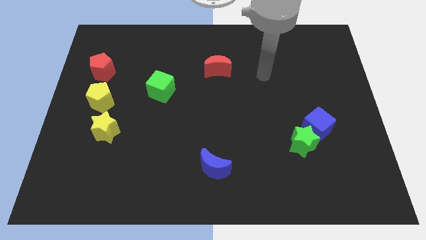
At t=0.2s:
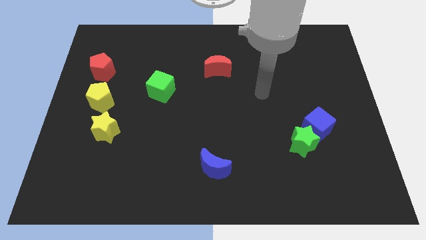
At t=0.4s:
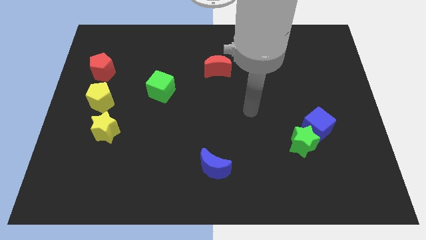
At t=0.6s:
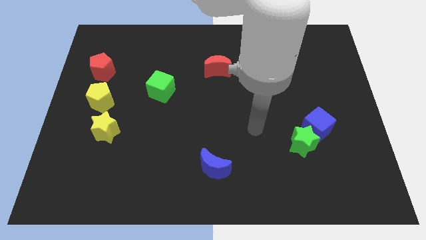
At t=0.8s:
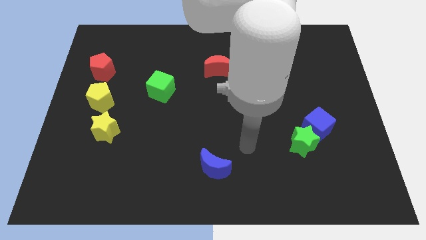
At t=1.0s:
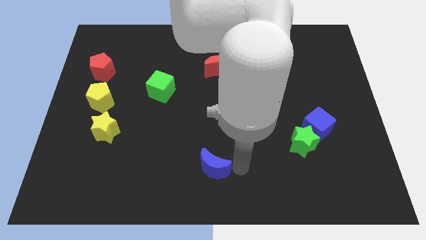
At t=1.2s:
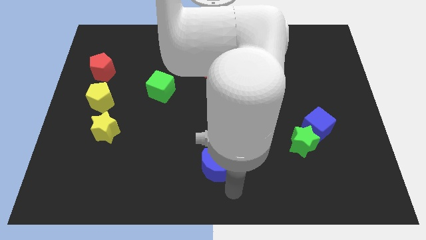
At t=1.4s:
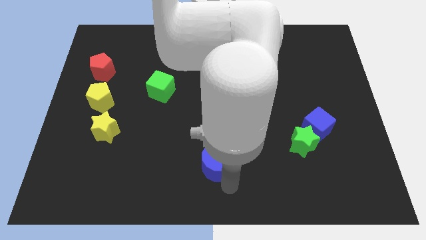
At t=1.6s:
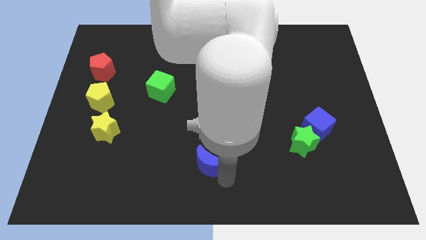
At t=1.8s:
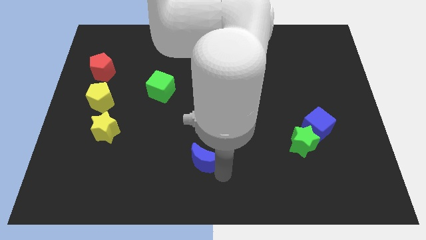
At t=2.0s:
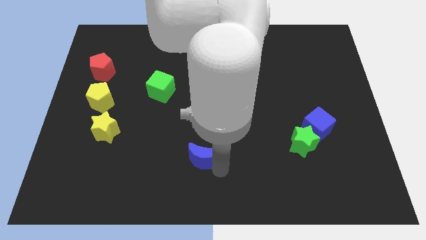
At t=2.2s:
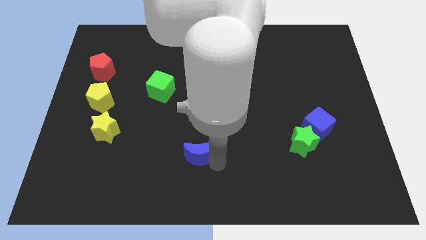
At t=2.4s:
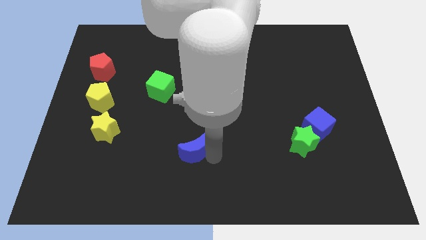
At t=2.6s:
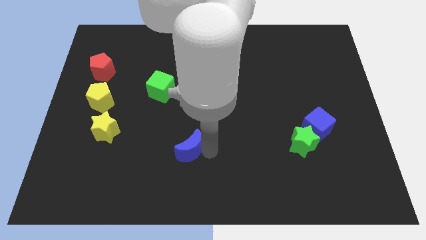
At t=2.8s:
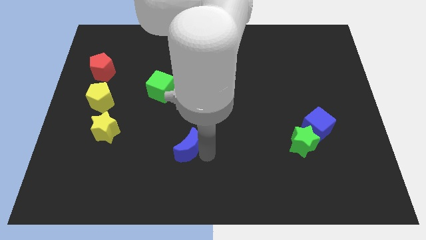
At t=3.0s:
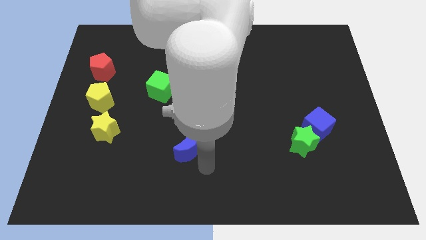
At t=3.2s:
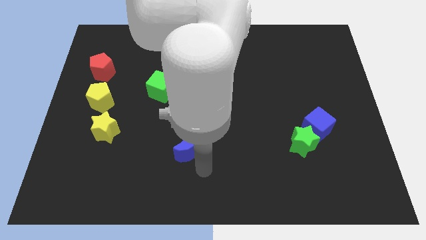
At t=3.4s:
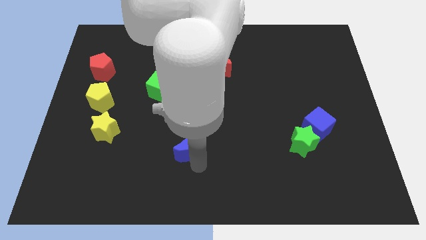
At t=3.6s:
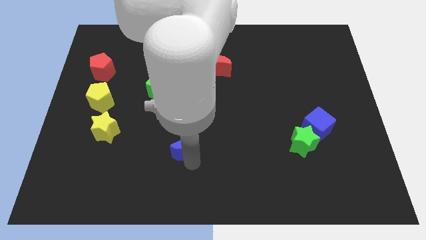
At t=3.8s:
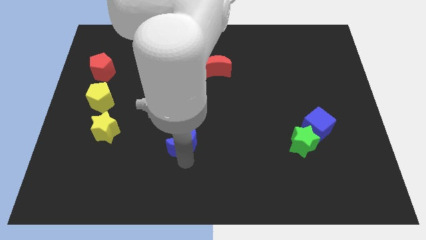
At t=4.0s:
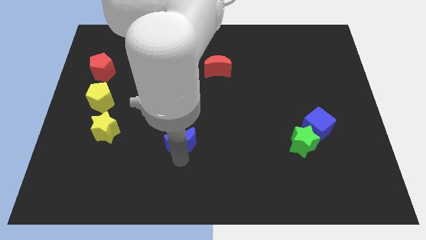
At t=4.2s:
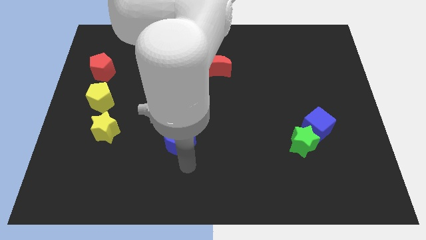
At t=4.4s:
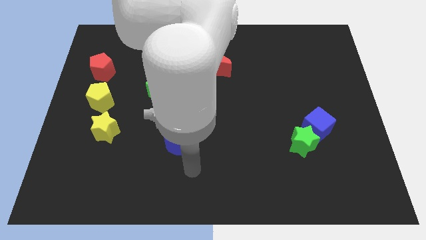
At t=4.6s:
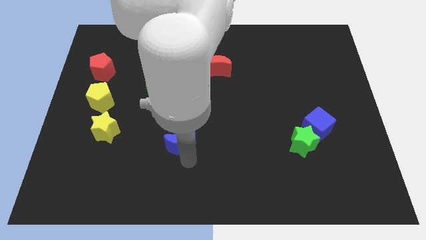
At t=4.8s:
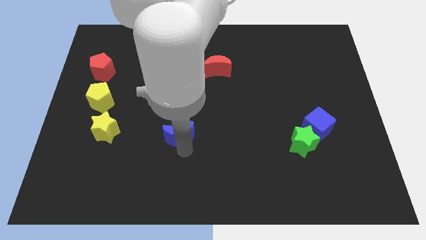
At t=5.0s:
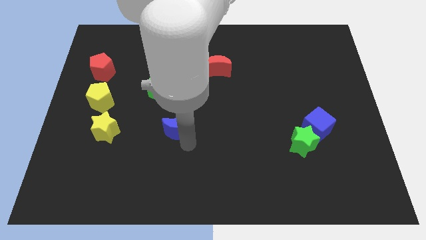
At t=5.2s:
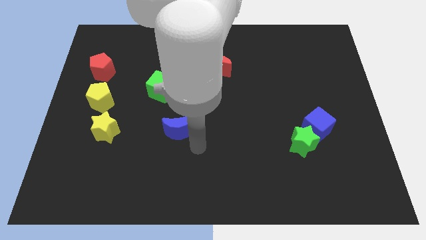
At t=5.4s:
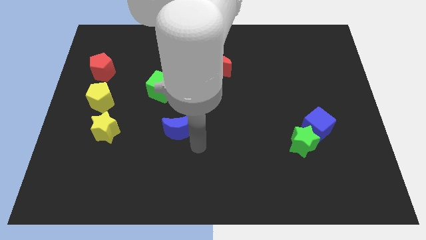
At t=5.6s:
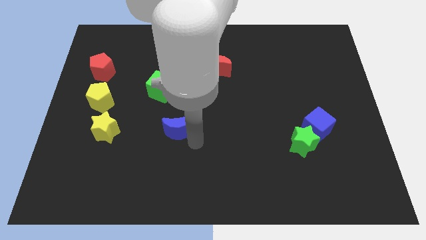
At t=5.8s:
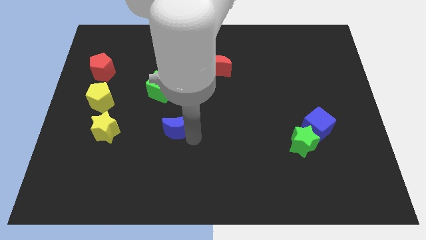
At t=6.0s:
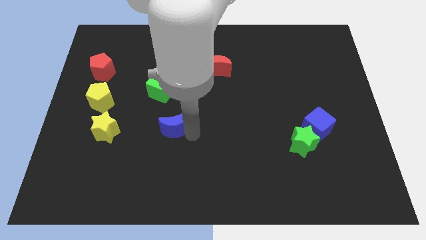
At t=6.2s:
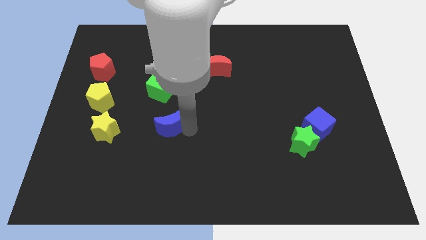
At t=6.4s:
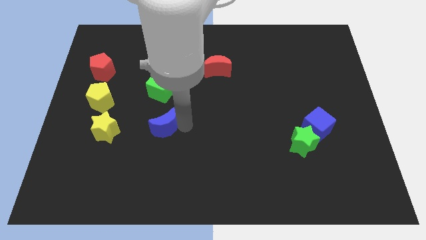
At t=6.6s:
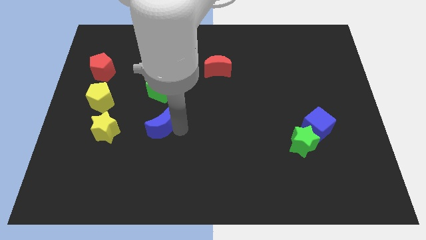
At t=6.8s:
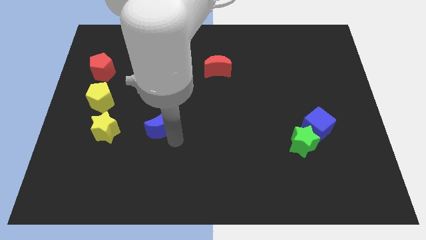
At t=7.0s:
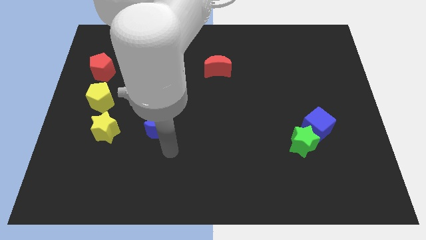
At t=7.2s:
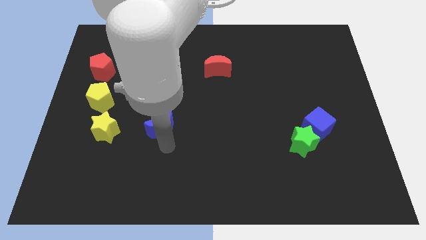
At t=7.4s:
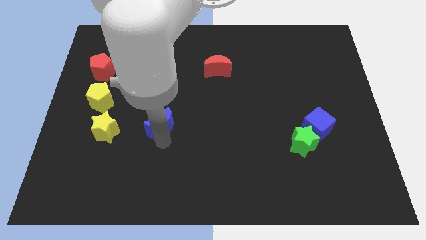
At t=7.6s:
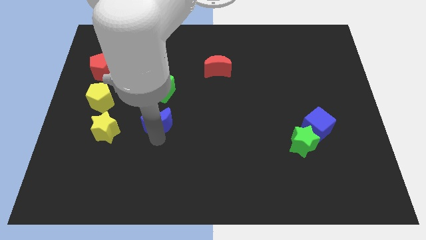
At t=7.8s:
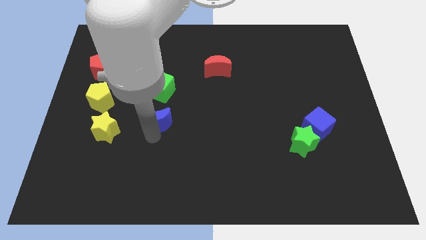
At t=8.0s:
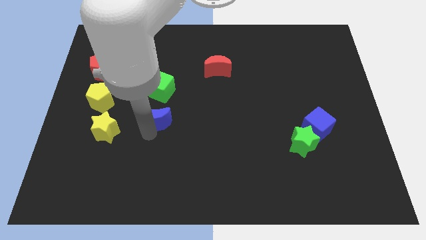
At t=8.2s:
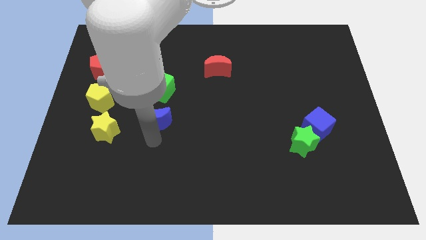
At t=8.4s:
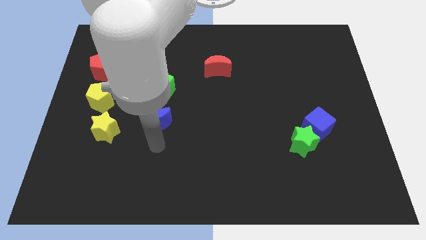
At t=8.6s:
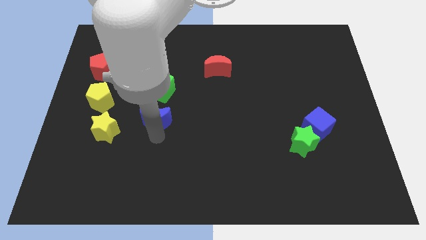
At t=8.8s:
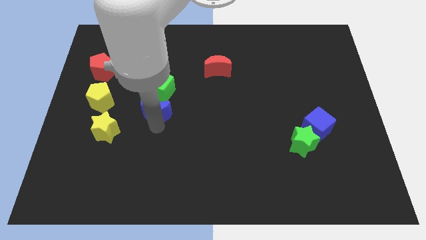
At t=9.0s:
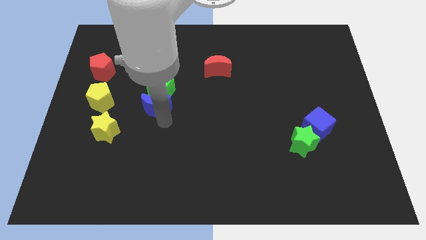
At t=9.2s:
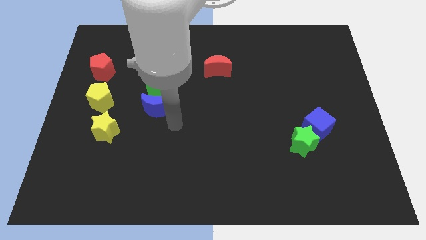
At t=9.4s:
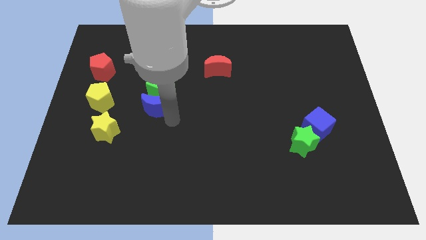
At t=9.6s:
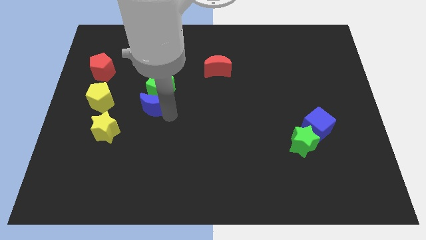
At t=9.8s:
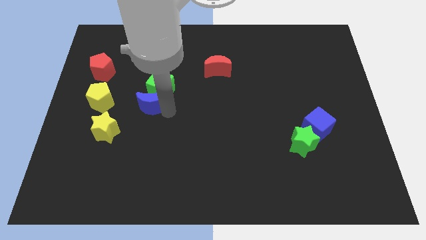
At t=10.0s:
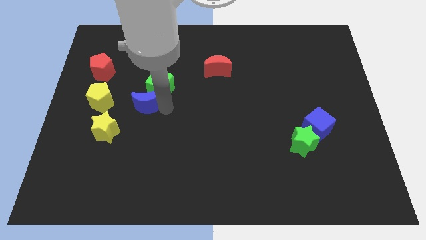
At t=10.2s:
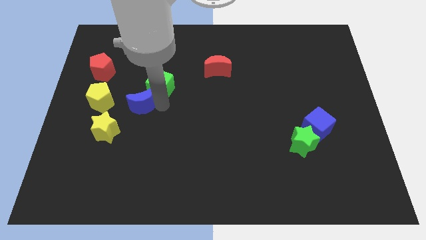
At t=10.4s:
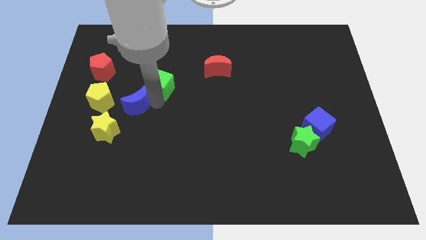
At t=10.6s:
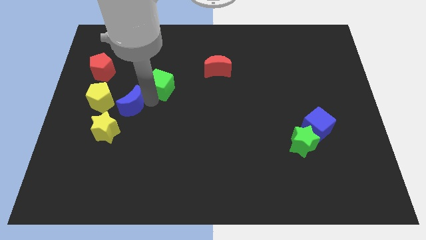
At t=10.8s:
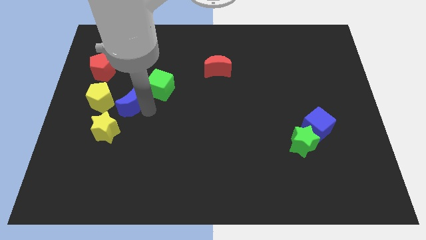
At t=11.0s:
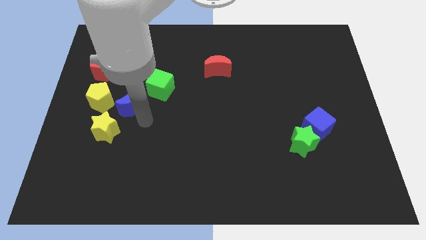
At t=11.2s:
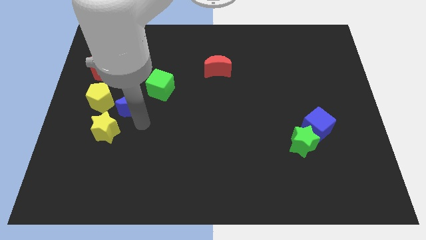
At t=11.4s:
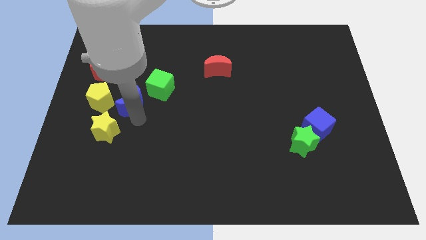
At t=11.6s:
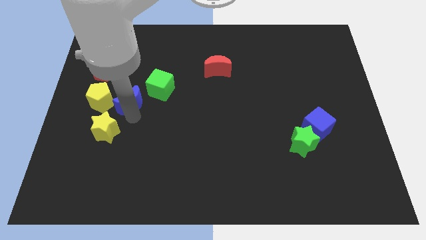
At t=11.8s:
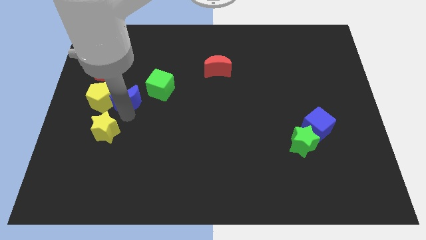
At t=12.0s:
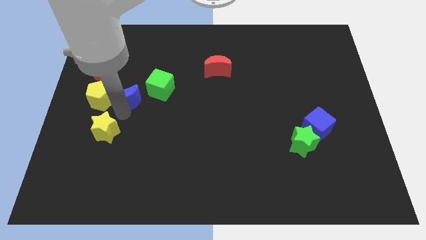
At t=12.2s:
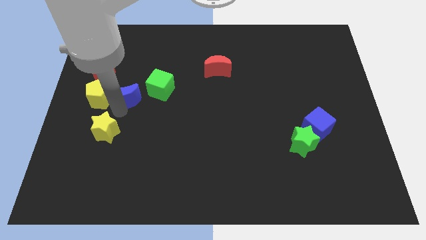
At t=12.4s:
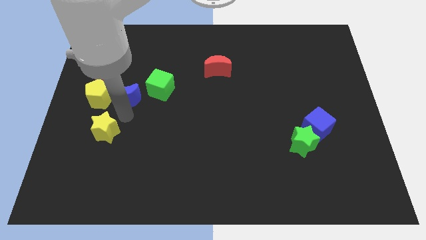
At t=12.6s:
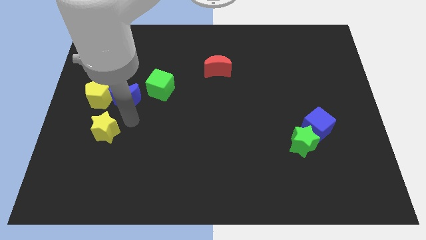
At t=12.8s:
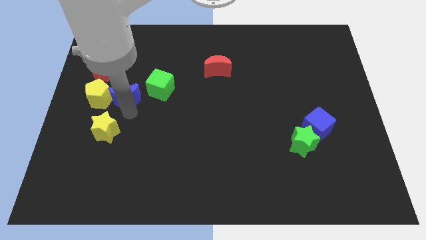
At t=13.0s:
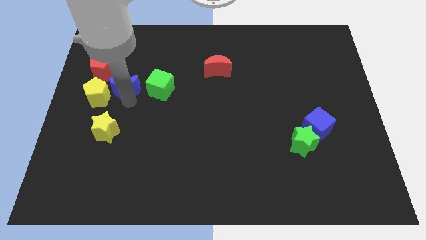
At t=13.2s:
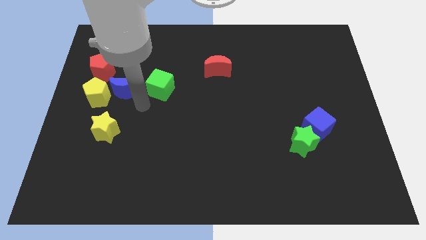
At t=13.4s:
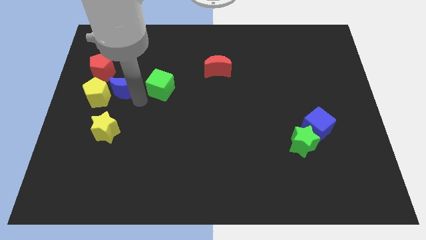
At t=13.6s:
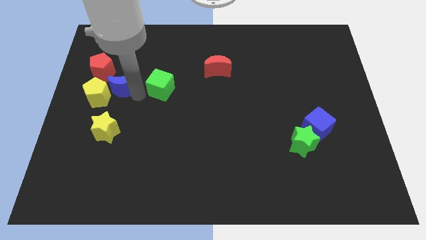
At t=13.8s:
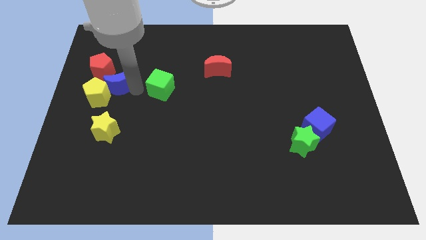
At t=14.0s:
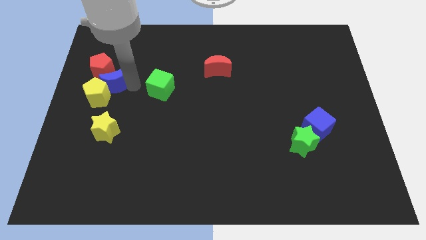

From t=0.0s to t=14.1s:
move the blue moon next to the red pentagon

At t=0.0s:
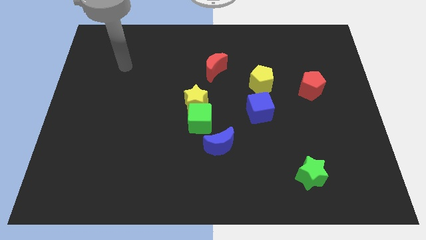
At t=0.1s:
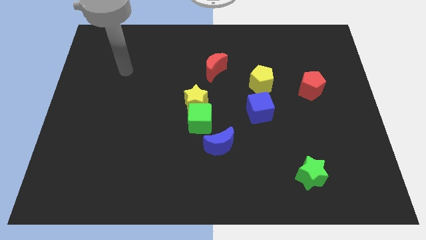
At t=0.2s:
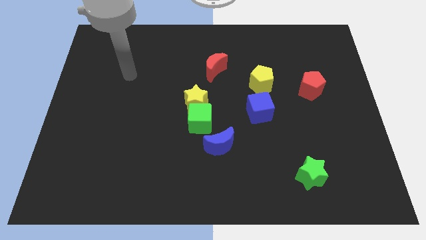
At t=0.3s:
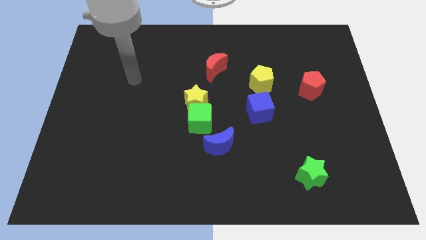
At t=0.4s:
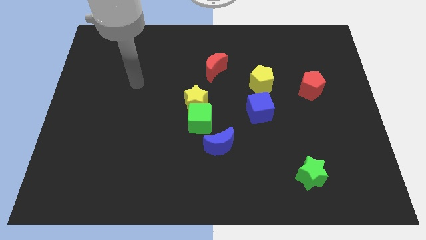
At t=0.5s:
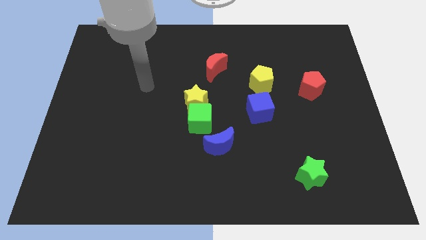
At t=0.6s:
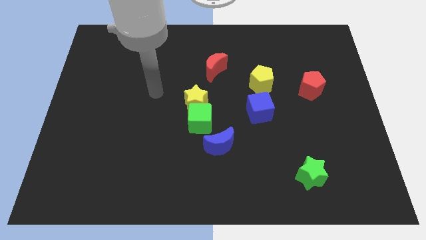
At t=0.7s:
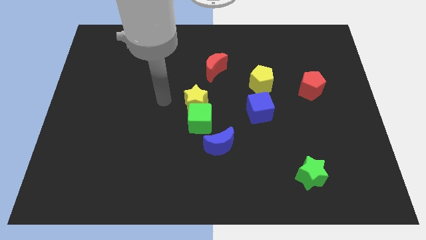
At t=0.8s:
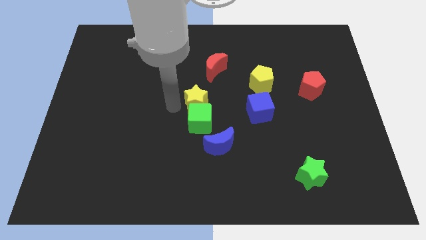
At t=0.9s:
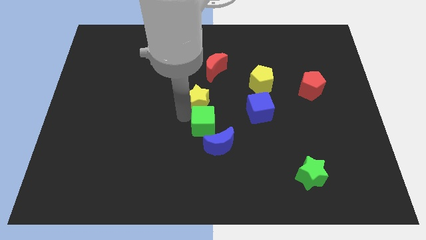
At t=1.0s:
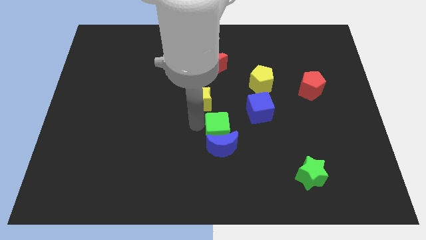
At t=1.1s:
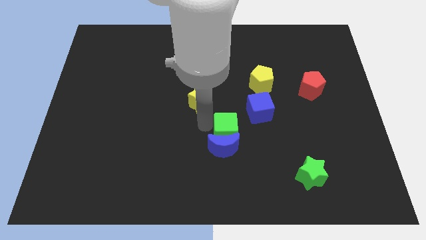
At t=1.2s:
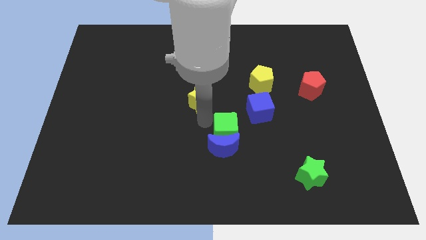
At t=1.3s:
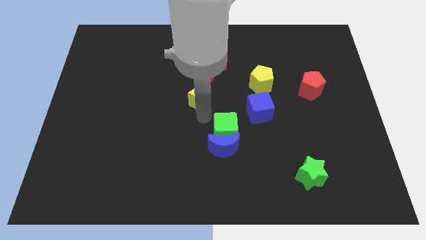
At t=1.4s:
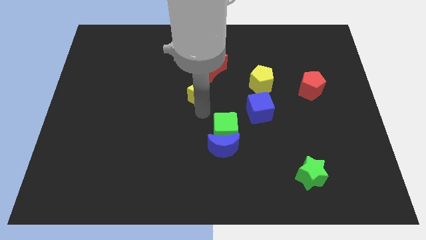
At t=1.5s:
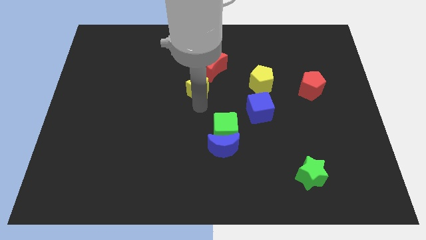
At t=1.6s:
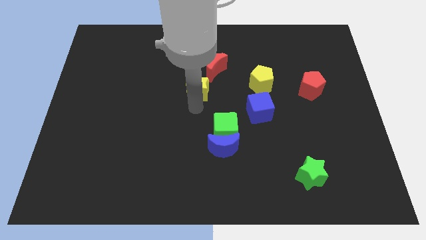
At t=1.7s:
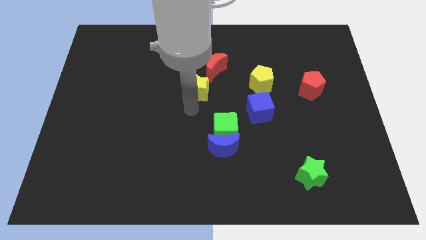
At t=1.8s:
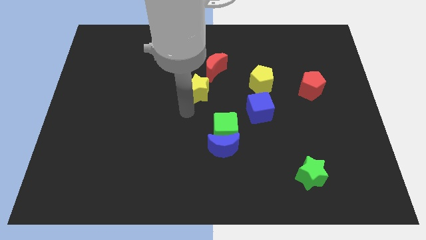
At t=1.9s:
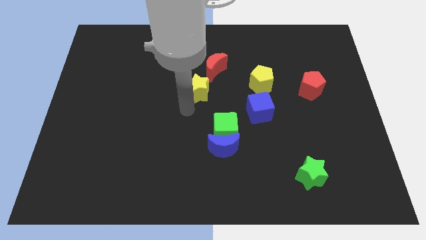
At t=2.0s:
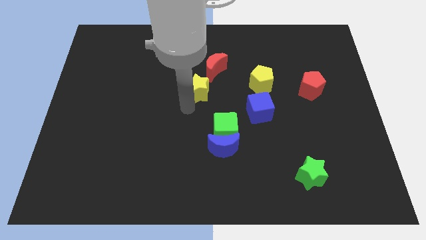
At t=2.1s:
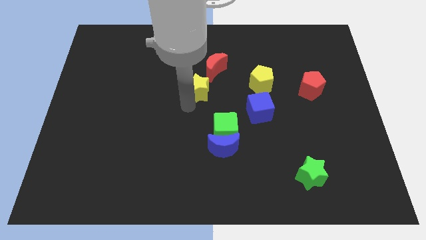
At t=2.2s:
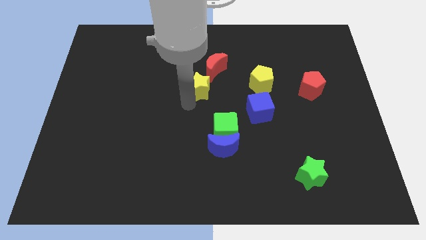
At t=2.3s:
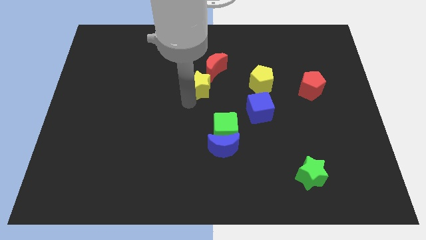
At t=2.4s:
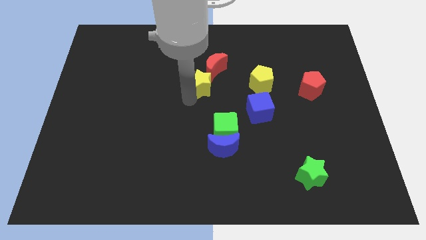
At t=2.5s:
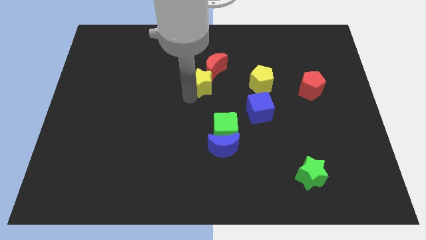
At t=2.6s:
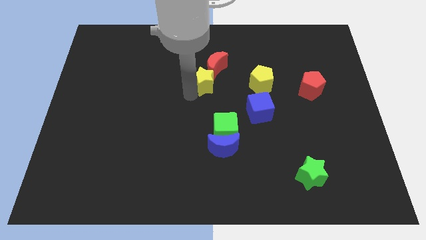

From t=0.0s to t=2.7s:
slide the yellow star next to the red moon
